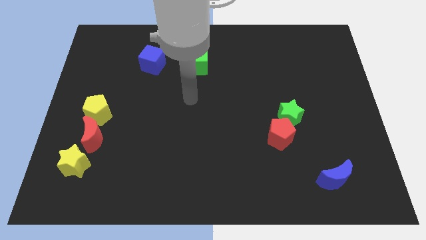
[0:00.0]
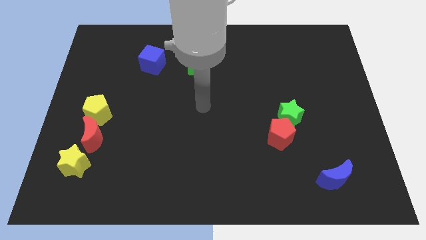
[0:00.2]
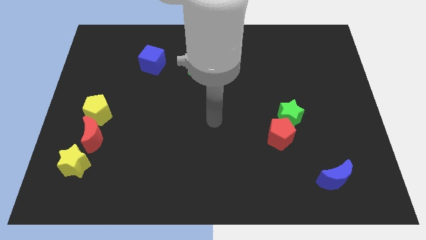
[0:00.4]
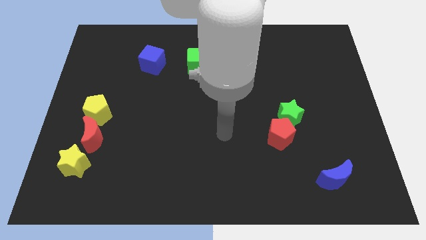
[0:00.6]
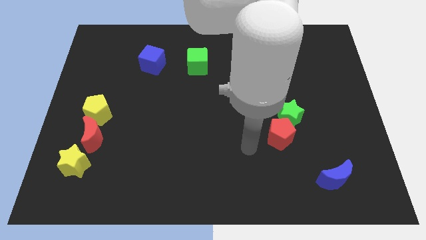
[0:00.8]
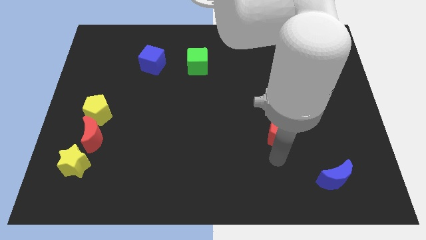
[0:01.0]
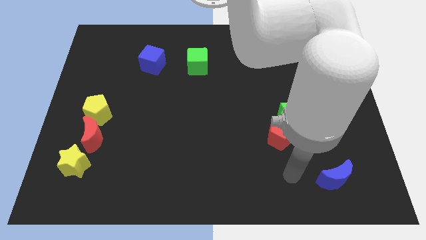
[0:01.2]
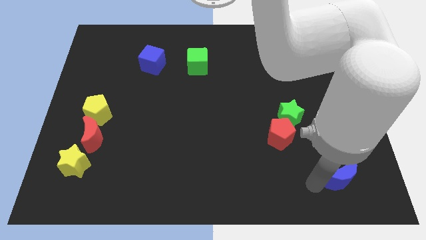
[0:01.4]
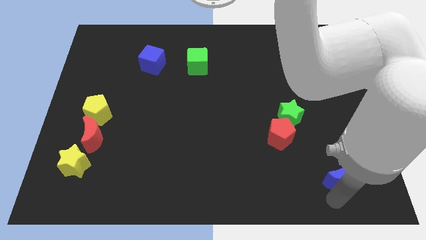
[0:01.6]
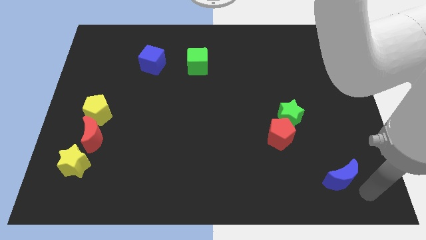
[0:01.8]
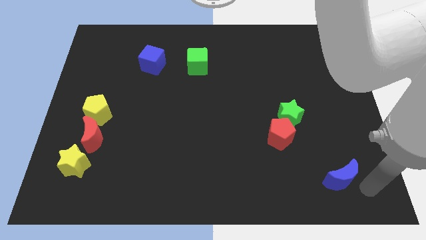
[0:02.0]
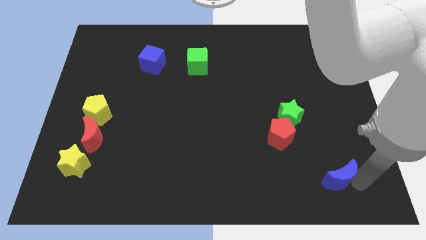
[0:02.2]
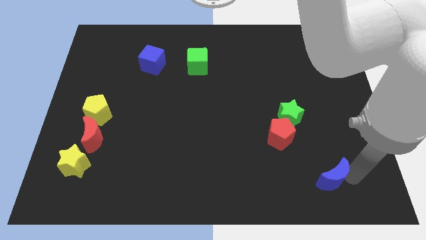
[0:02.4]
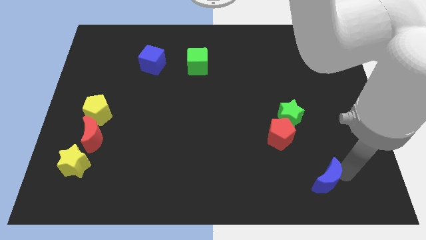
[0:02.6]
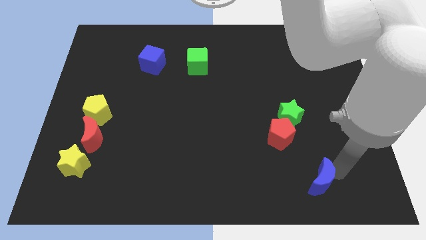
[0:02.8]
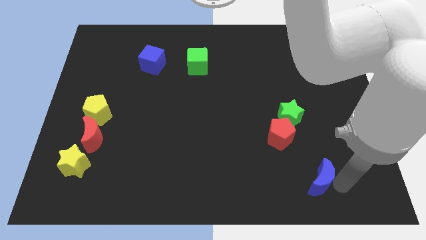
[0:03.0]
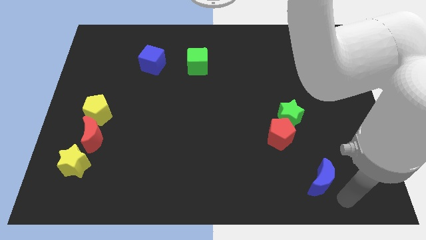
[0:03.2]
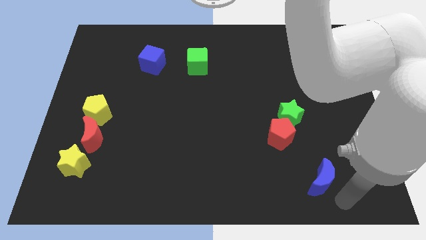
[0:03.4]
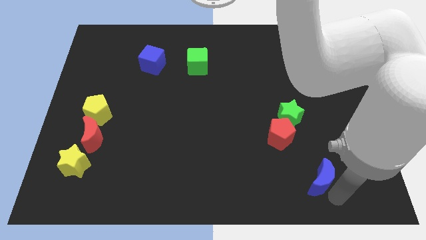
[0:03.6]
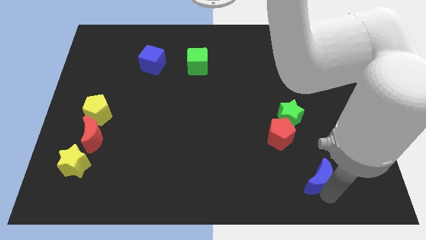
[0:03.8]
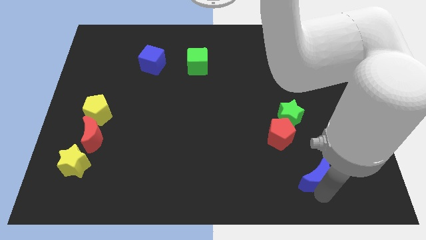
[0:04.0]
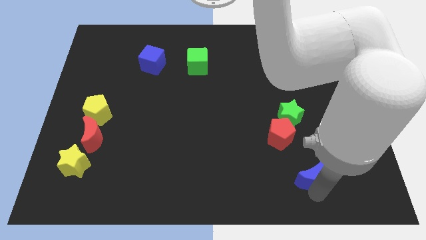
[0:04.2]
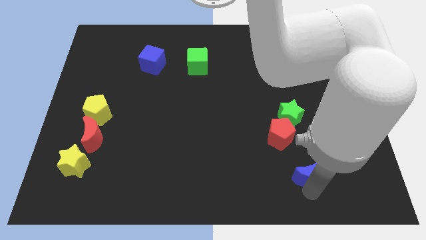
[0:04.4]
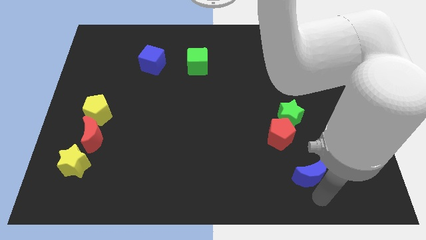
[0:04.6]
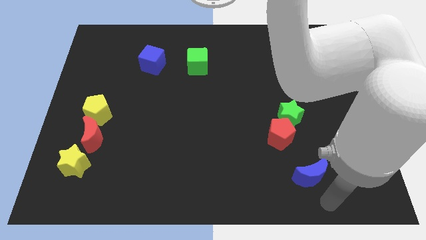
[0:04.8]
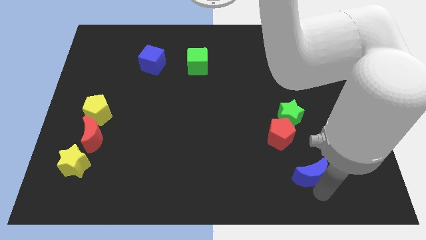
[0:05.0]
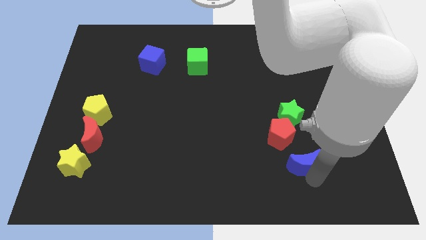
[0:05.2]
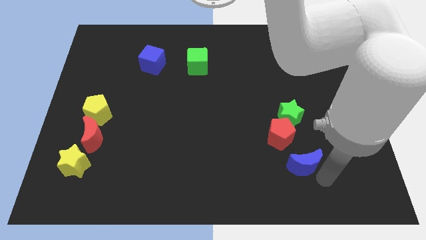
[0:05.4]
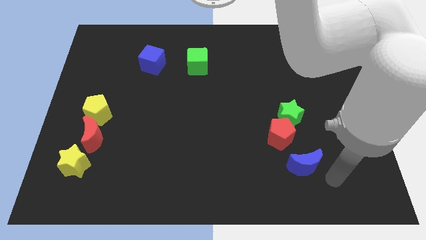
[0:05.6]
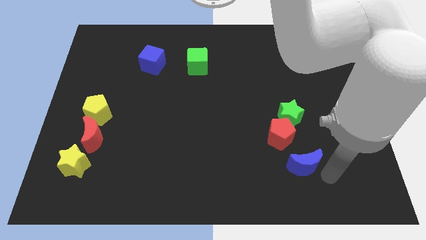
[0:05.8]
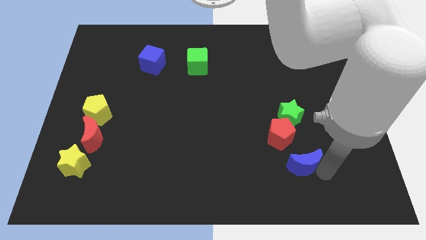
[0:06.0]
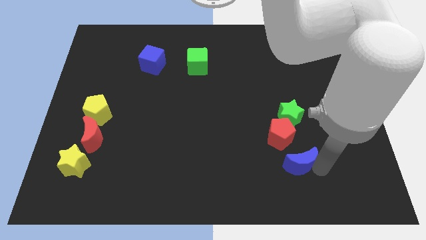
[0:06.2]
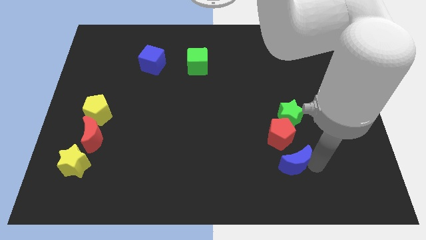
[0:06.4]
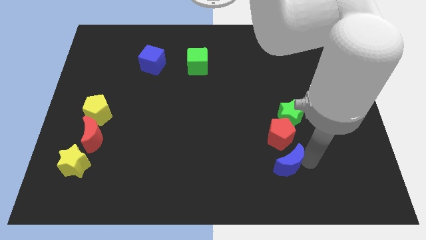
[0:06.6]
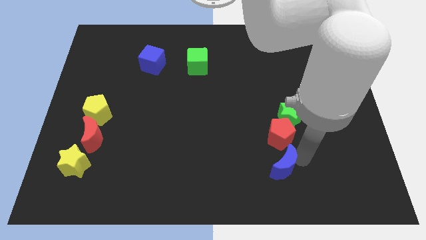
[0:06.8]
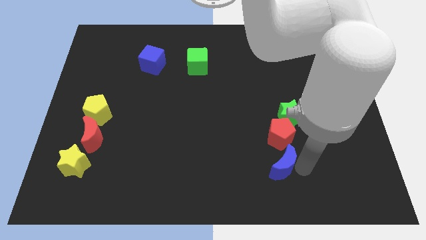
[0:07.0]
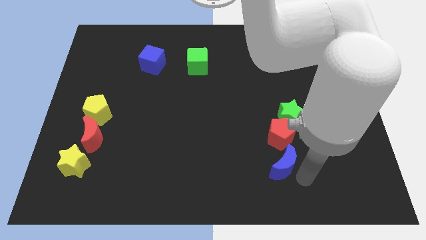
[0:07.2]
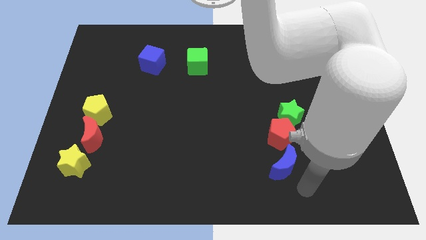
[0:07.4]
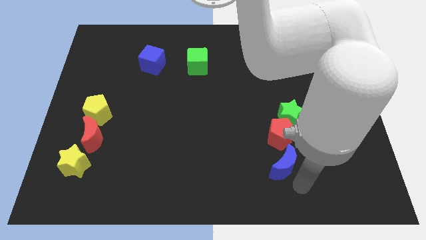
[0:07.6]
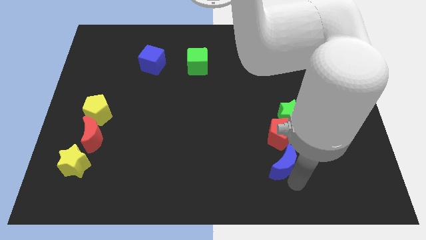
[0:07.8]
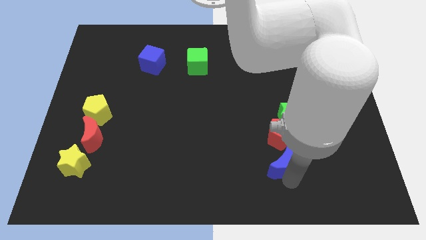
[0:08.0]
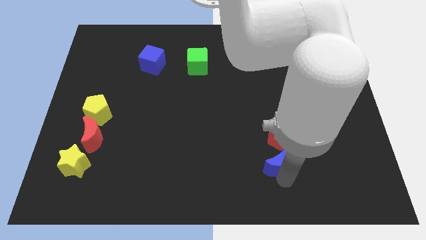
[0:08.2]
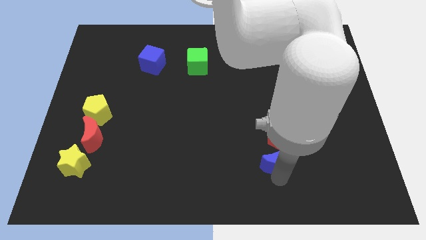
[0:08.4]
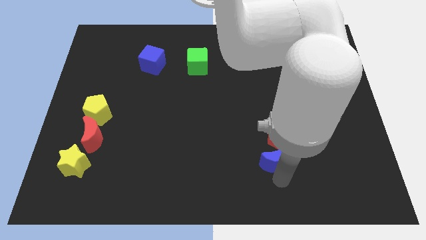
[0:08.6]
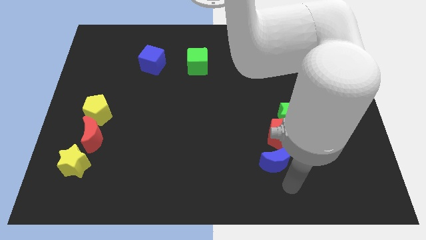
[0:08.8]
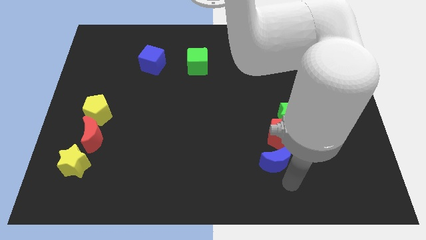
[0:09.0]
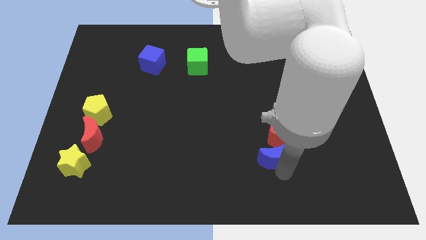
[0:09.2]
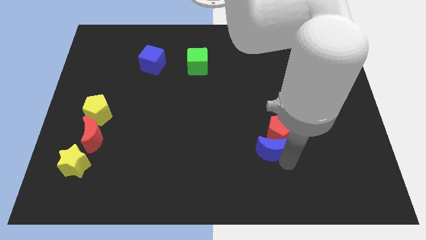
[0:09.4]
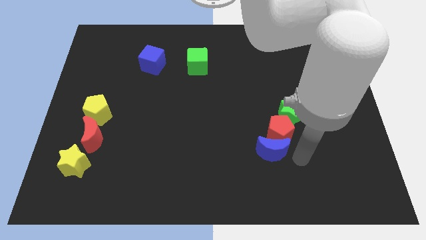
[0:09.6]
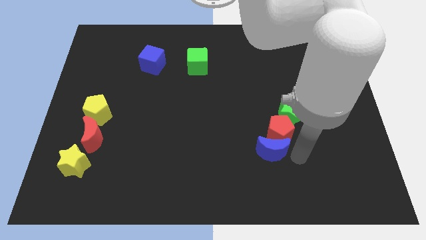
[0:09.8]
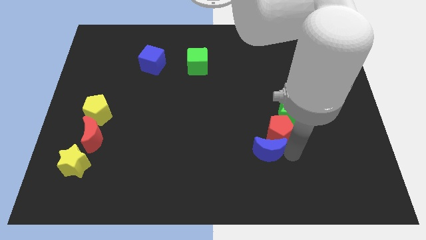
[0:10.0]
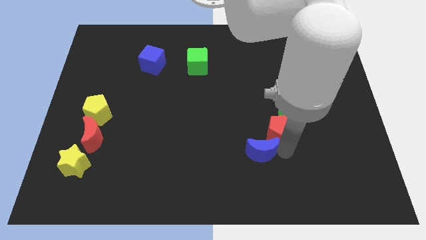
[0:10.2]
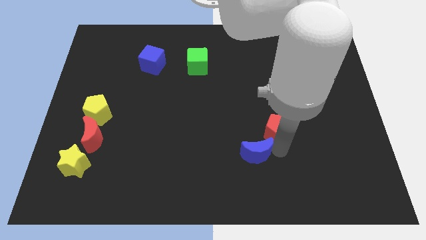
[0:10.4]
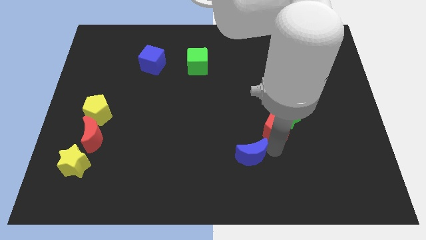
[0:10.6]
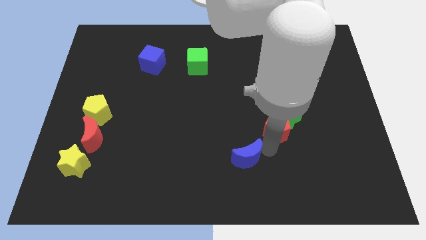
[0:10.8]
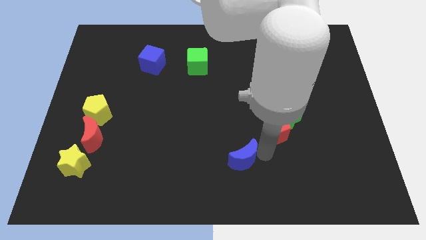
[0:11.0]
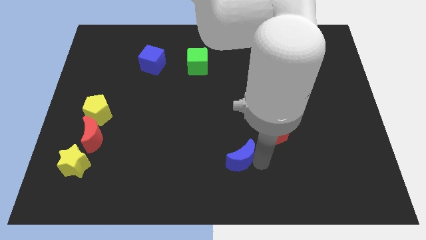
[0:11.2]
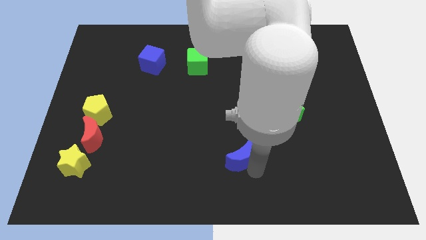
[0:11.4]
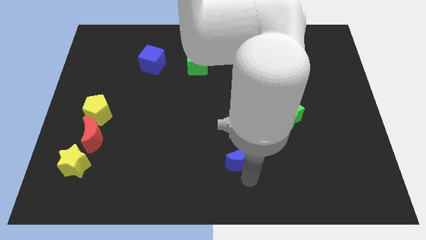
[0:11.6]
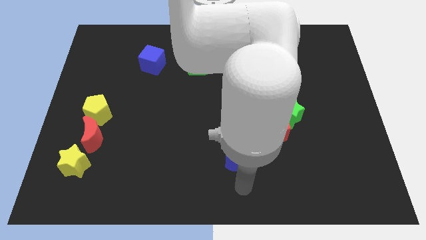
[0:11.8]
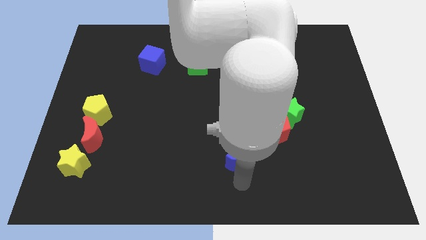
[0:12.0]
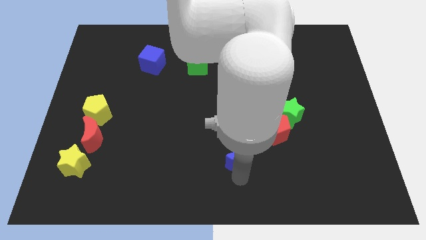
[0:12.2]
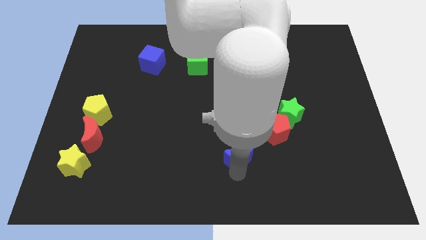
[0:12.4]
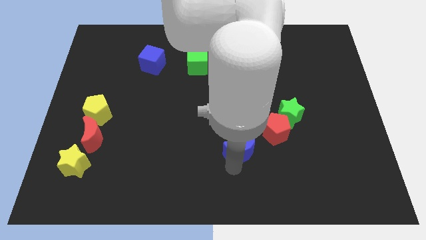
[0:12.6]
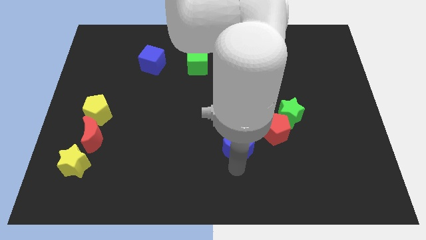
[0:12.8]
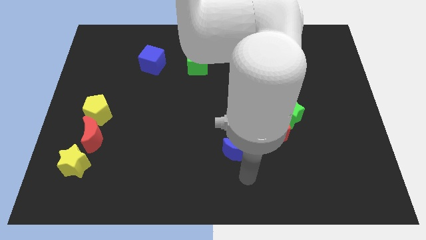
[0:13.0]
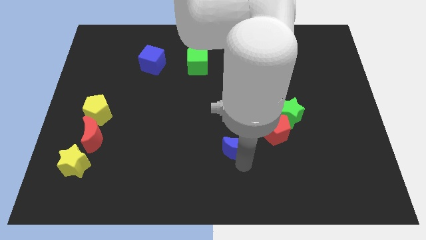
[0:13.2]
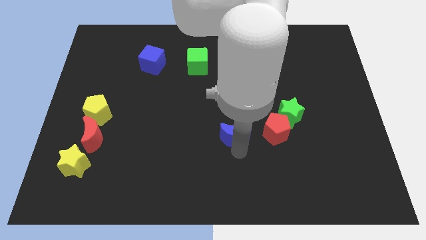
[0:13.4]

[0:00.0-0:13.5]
put the blue moon to the middle of the board
